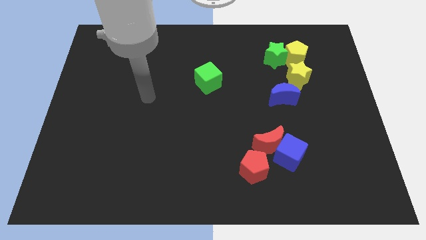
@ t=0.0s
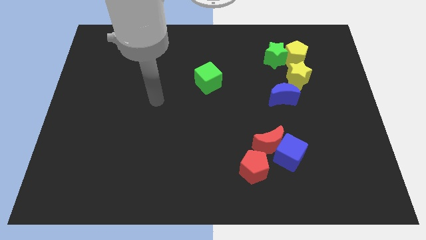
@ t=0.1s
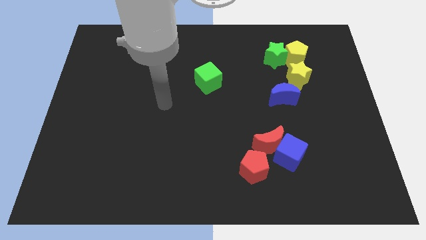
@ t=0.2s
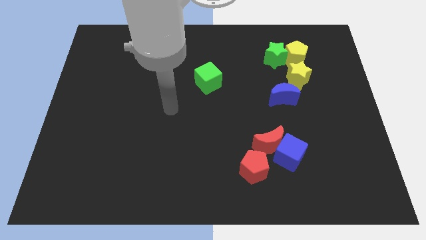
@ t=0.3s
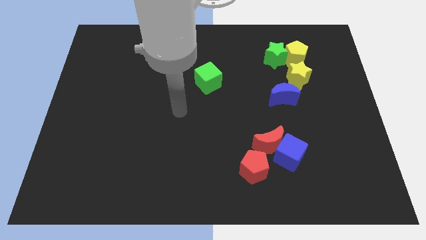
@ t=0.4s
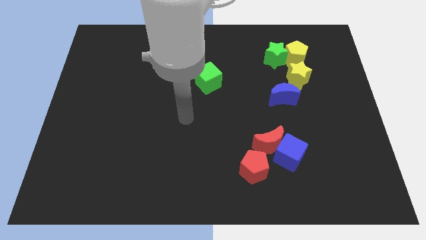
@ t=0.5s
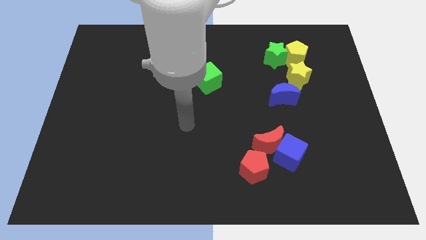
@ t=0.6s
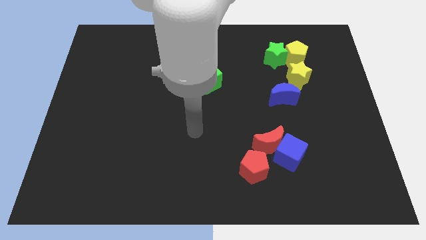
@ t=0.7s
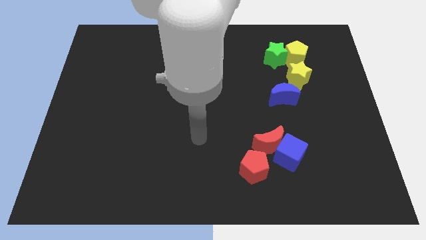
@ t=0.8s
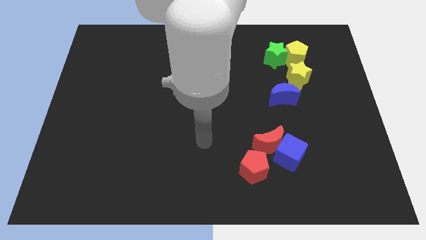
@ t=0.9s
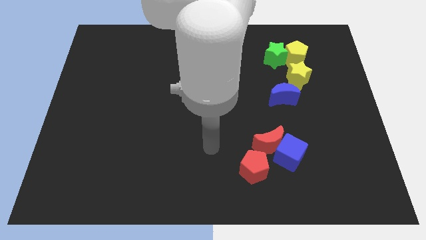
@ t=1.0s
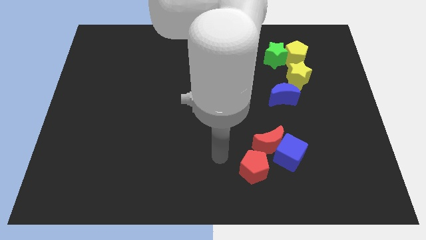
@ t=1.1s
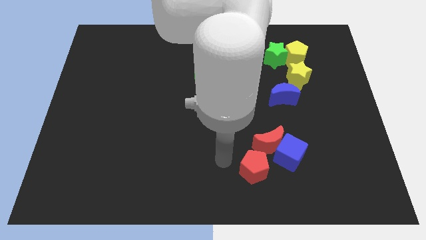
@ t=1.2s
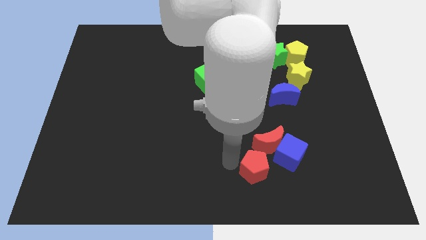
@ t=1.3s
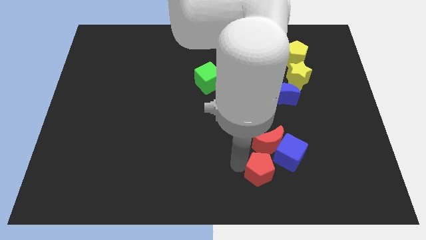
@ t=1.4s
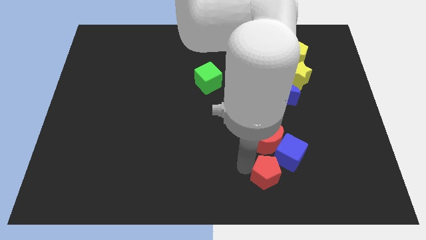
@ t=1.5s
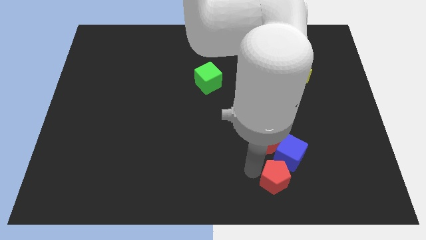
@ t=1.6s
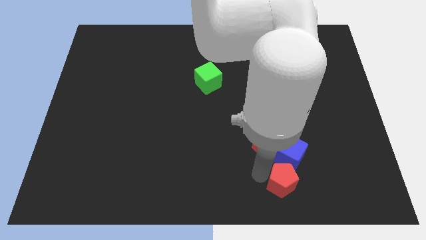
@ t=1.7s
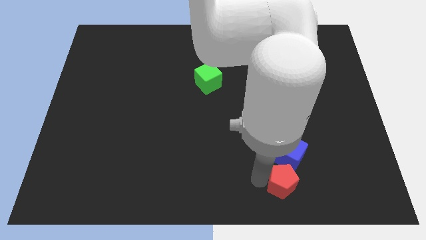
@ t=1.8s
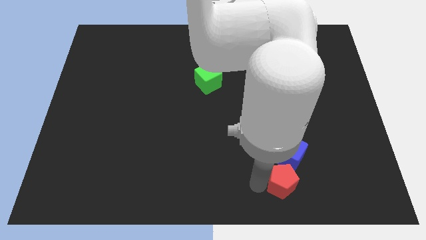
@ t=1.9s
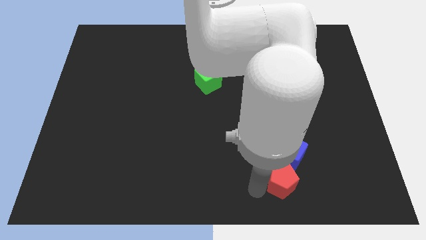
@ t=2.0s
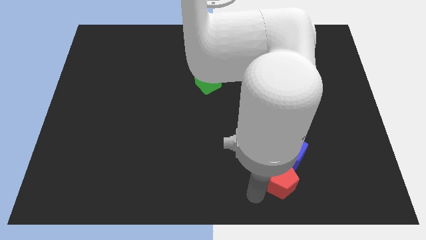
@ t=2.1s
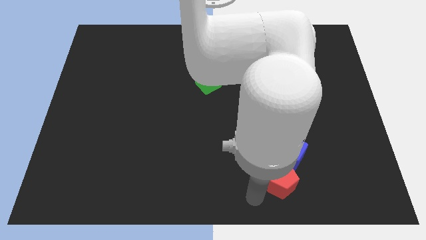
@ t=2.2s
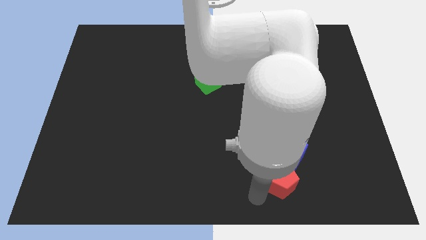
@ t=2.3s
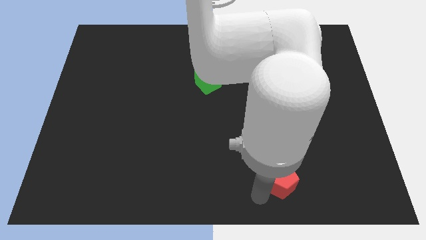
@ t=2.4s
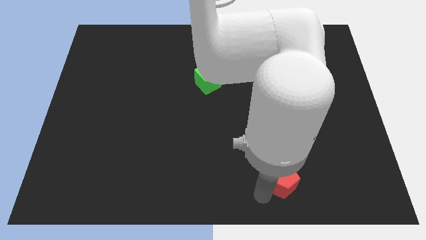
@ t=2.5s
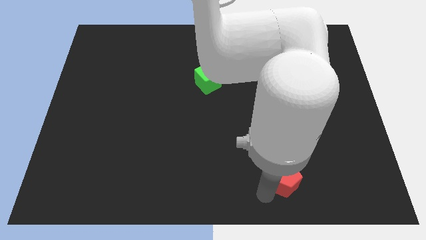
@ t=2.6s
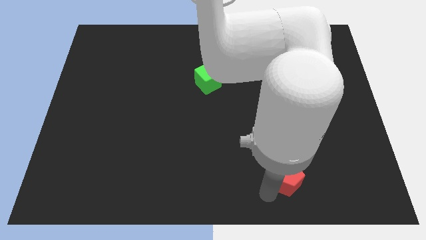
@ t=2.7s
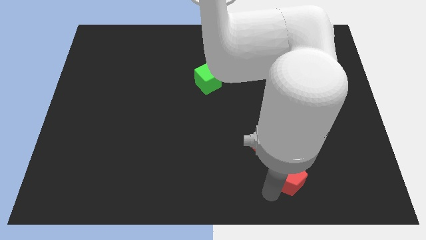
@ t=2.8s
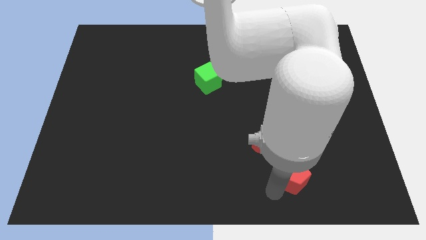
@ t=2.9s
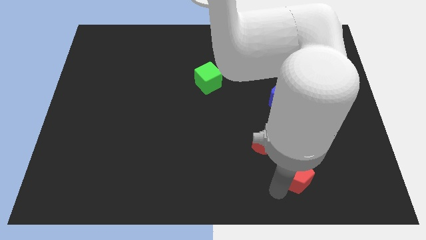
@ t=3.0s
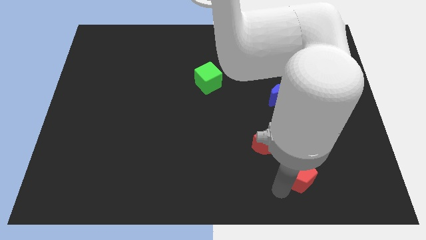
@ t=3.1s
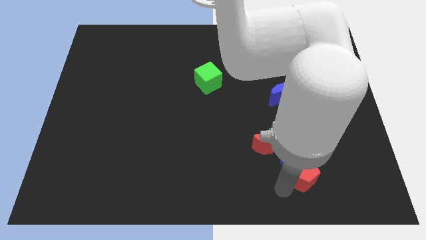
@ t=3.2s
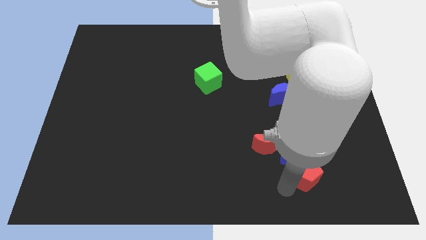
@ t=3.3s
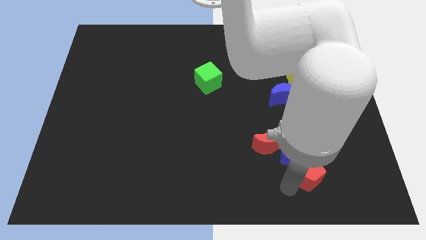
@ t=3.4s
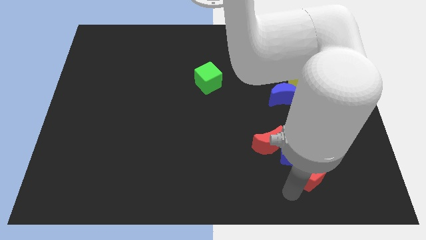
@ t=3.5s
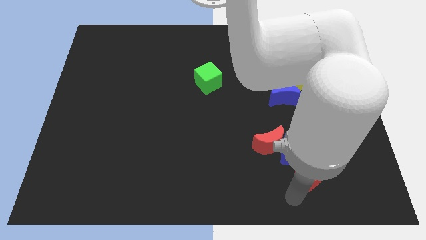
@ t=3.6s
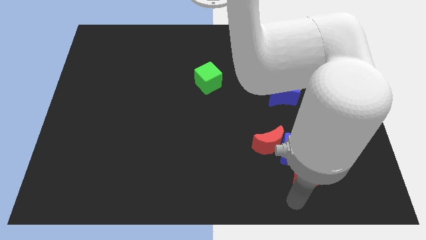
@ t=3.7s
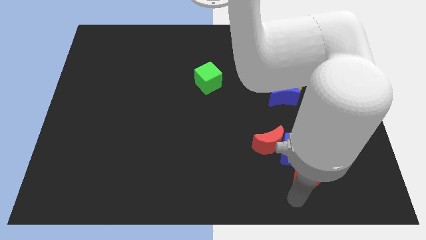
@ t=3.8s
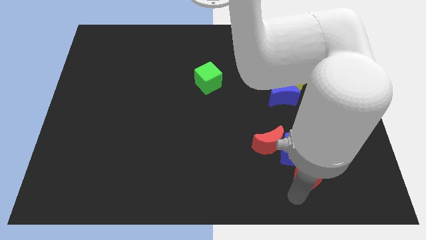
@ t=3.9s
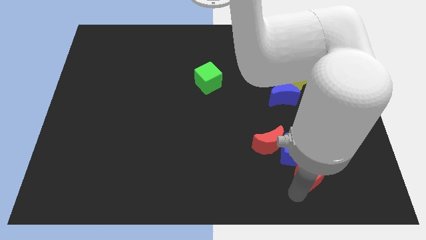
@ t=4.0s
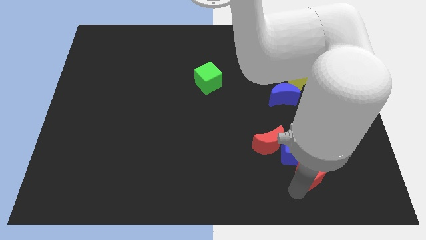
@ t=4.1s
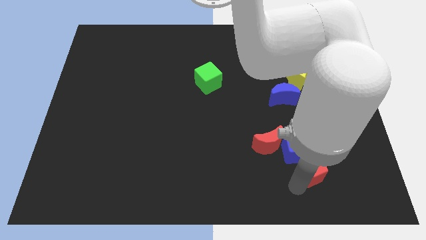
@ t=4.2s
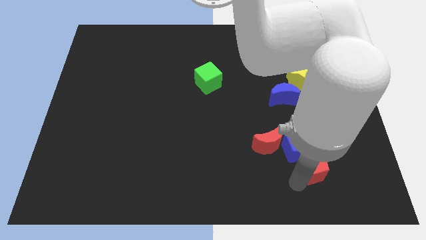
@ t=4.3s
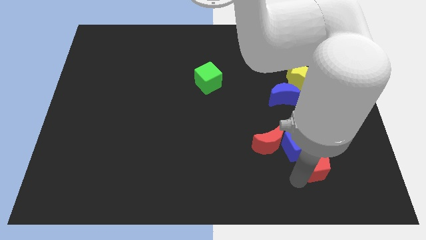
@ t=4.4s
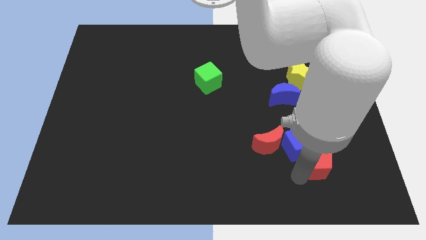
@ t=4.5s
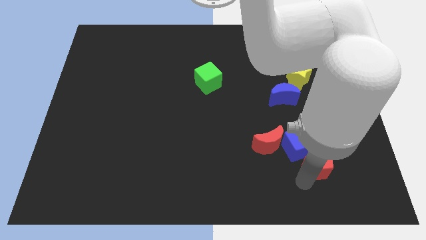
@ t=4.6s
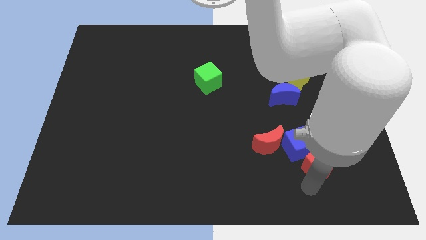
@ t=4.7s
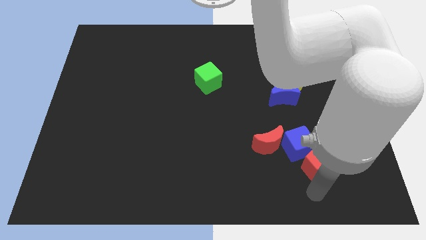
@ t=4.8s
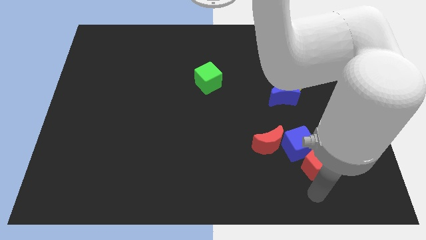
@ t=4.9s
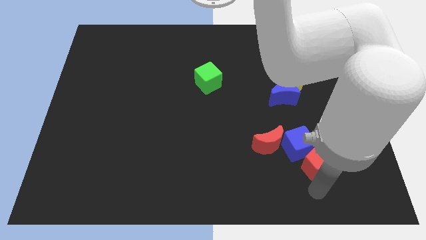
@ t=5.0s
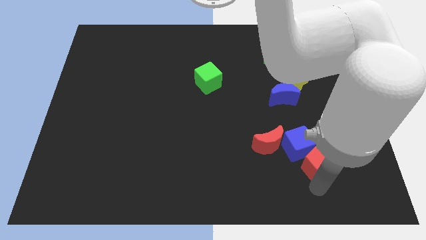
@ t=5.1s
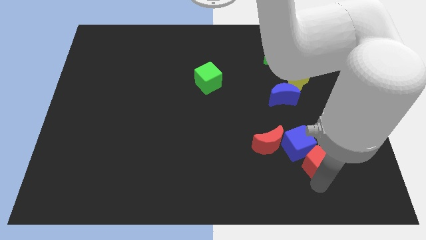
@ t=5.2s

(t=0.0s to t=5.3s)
move the red pentagon to the right of the red moon

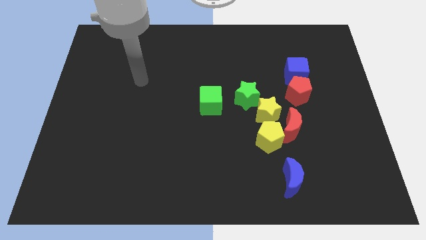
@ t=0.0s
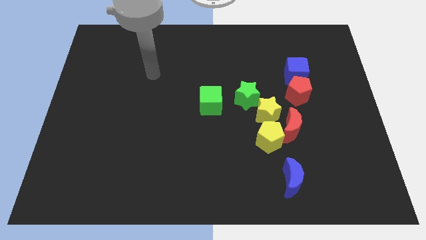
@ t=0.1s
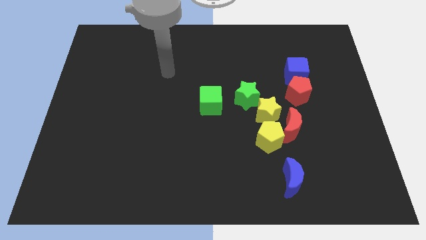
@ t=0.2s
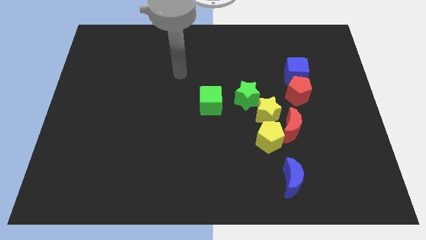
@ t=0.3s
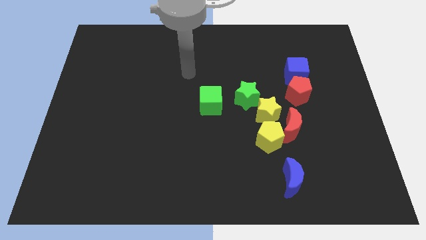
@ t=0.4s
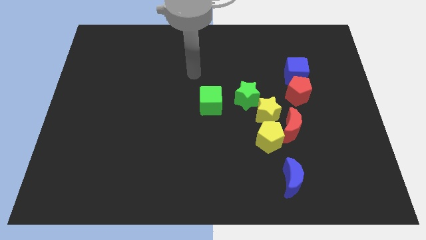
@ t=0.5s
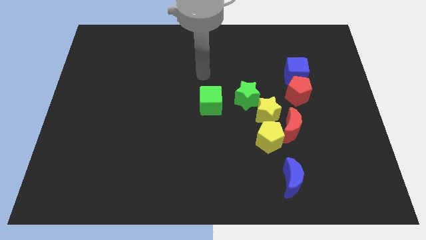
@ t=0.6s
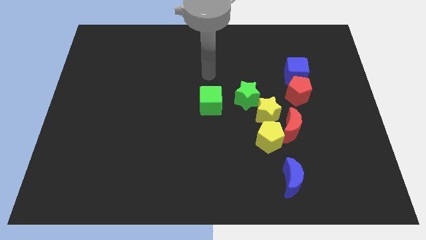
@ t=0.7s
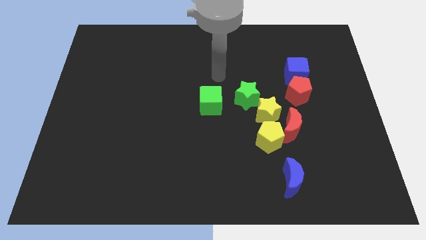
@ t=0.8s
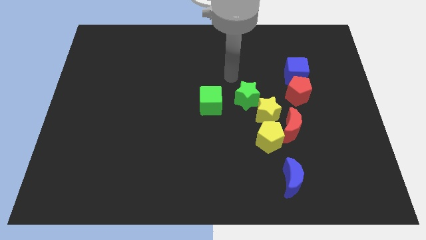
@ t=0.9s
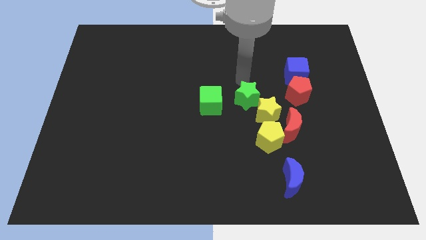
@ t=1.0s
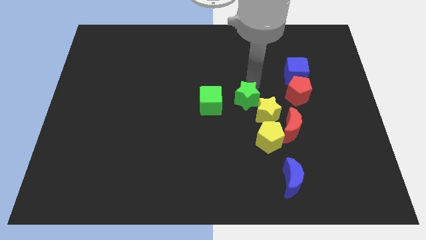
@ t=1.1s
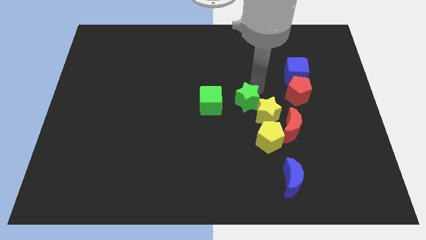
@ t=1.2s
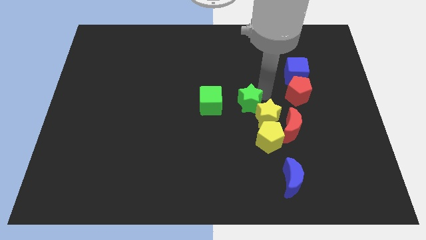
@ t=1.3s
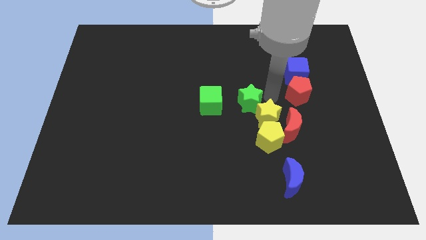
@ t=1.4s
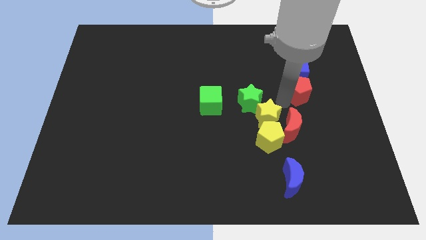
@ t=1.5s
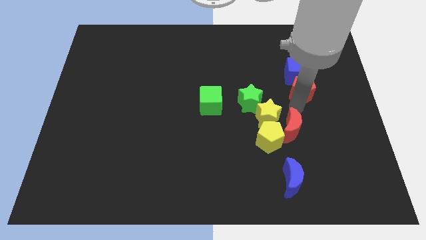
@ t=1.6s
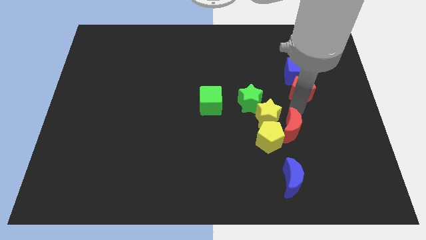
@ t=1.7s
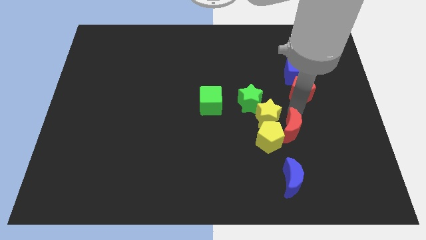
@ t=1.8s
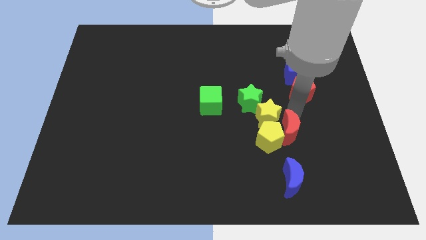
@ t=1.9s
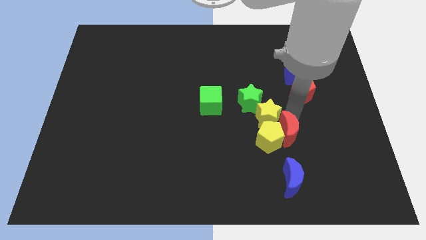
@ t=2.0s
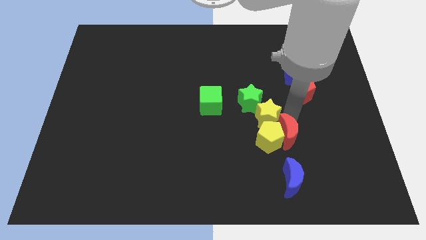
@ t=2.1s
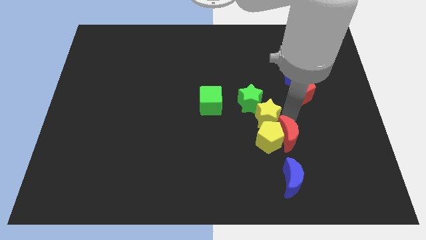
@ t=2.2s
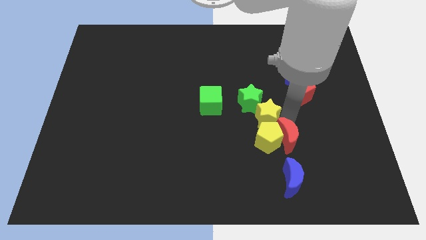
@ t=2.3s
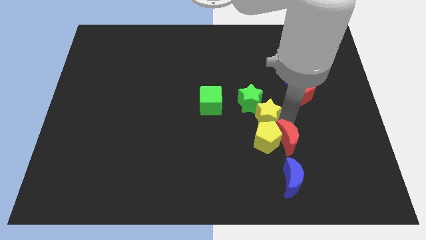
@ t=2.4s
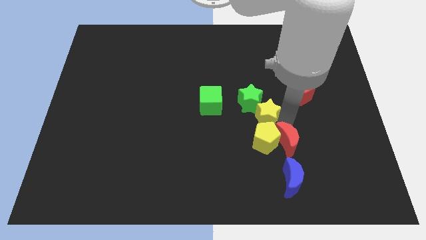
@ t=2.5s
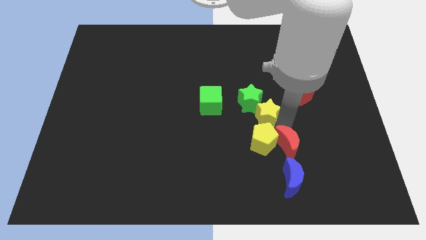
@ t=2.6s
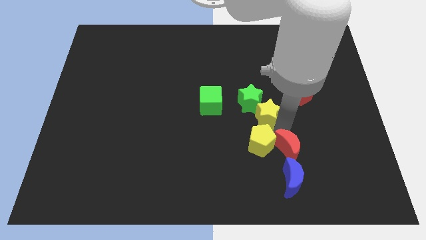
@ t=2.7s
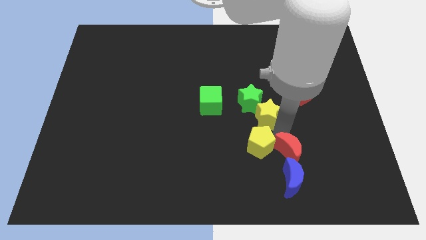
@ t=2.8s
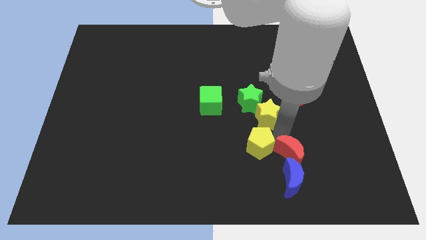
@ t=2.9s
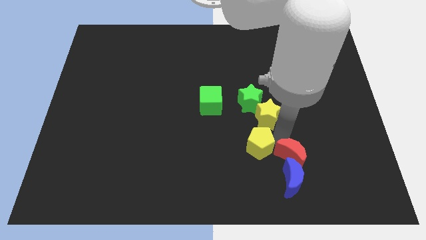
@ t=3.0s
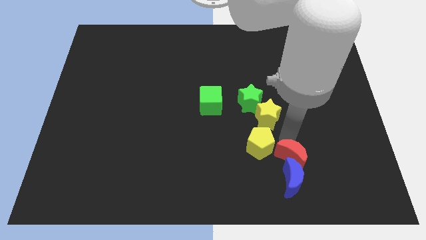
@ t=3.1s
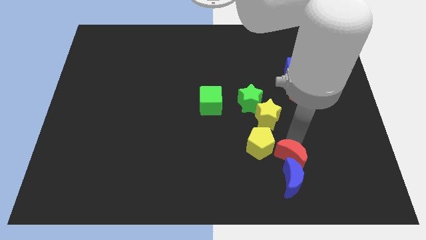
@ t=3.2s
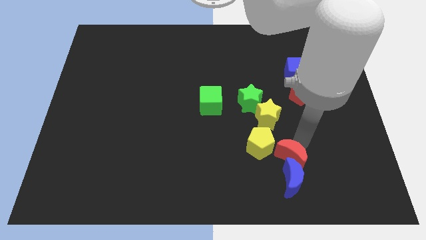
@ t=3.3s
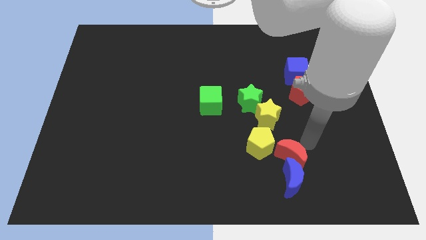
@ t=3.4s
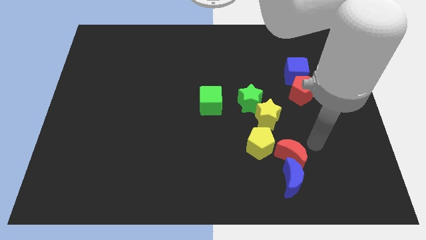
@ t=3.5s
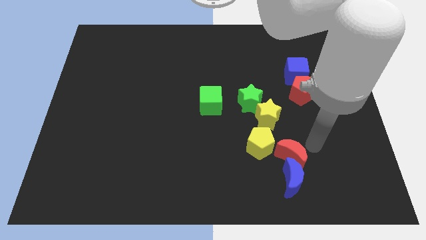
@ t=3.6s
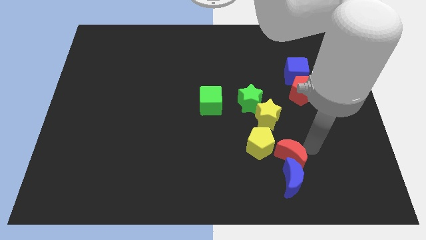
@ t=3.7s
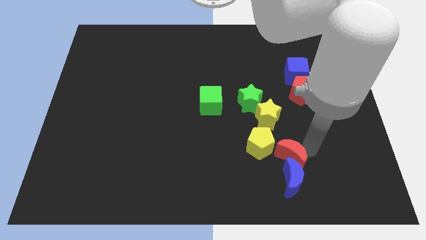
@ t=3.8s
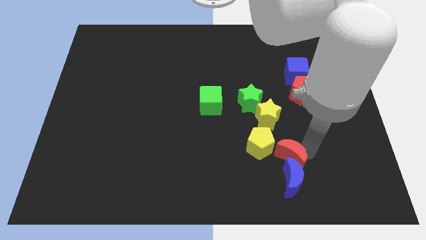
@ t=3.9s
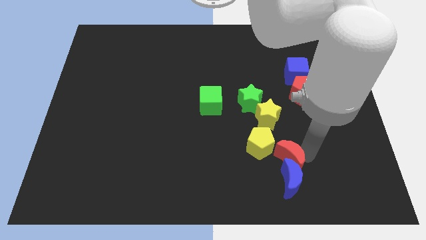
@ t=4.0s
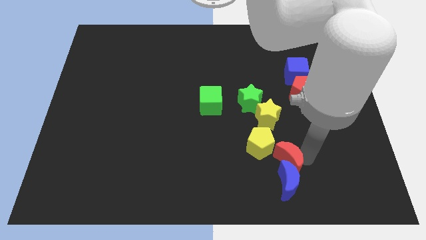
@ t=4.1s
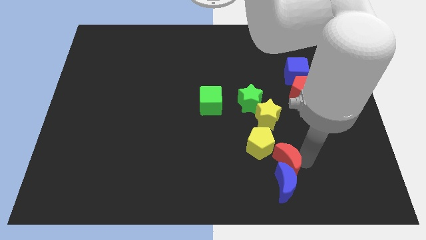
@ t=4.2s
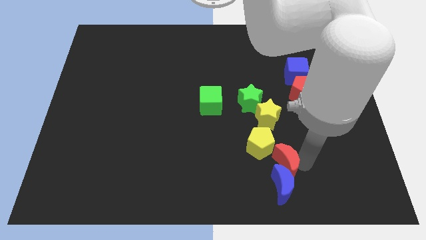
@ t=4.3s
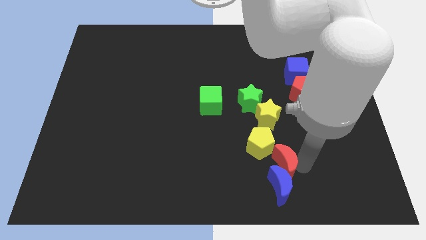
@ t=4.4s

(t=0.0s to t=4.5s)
slide the red moon to the bottom of the yellow pentagon
